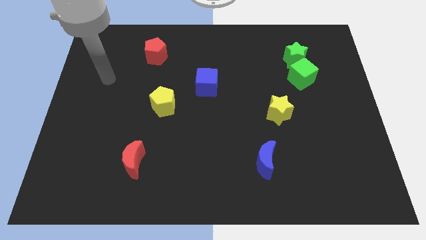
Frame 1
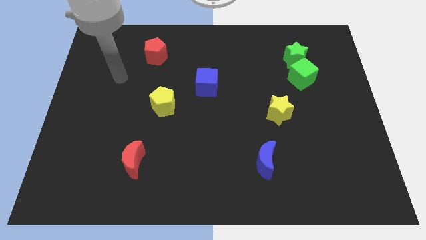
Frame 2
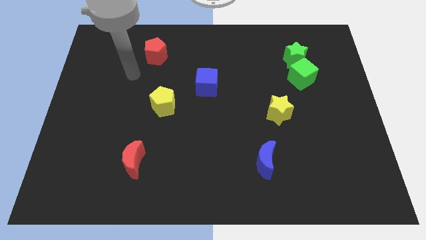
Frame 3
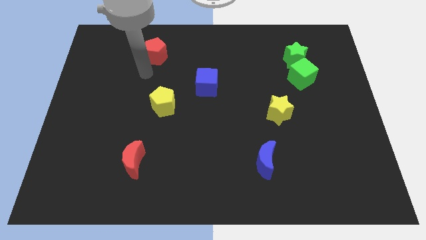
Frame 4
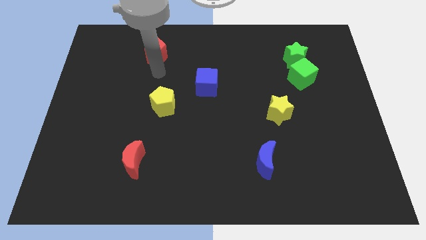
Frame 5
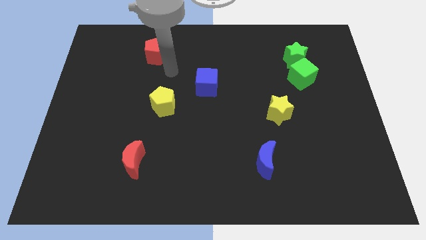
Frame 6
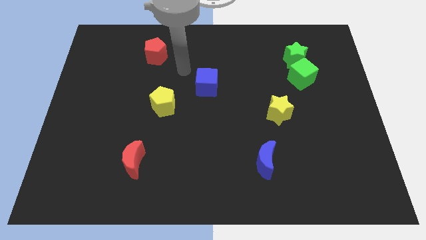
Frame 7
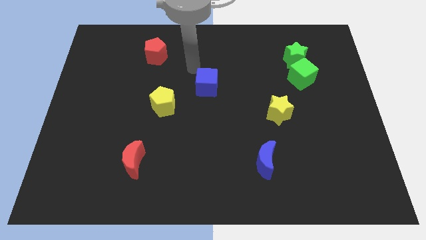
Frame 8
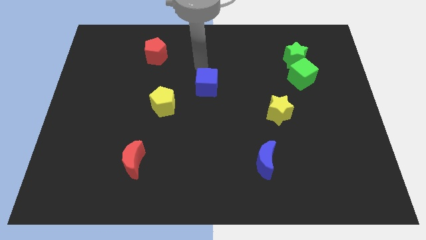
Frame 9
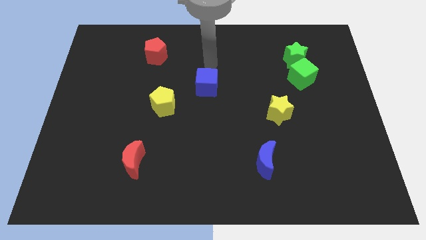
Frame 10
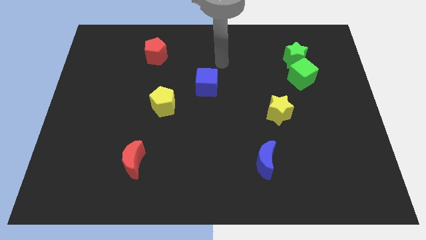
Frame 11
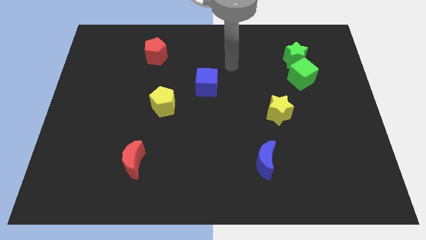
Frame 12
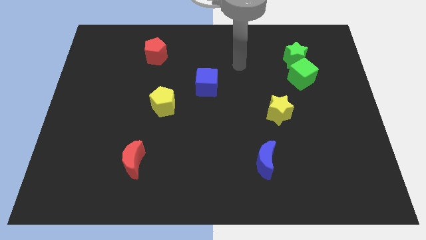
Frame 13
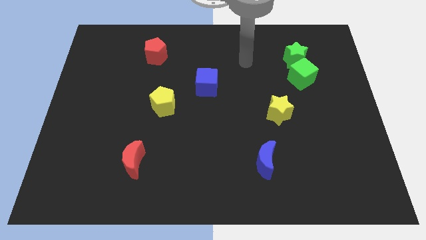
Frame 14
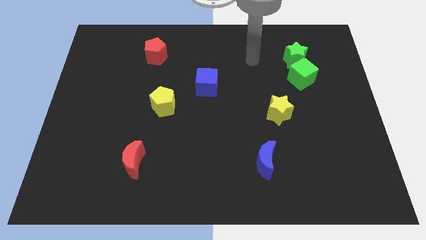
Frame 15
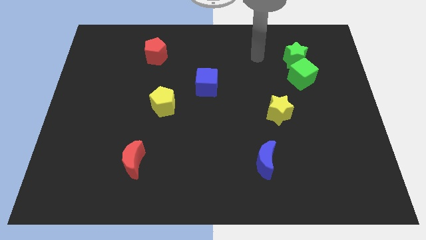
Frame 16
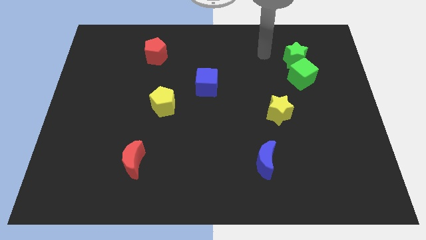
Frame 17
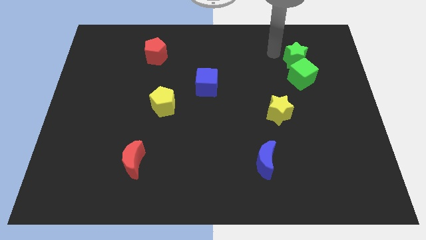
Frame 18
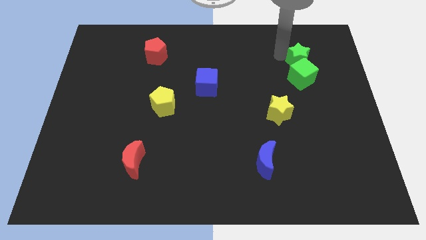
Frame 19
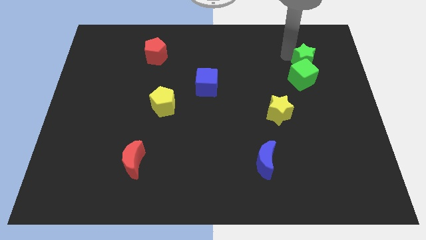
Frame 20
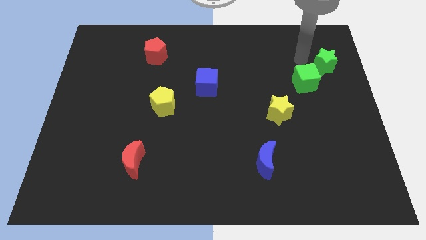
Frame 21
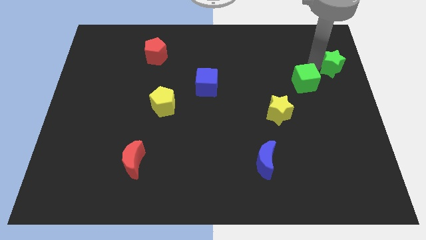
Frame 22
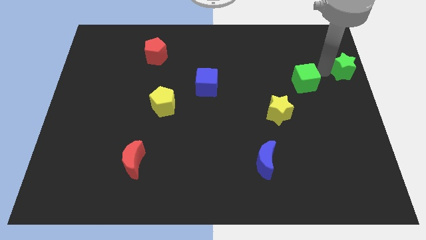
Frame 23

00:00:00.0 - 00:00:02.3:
move the green cube away from the green star

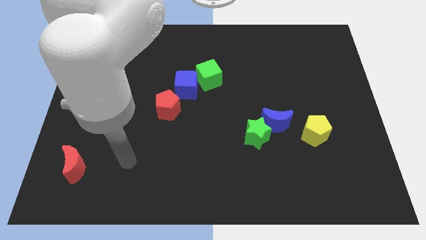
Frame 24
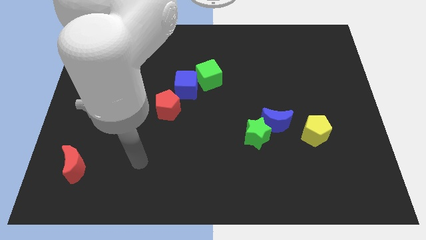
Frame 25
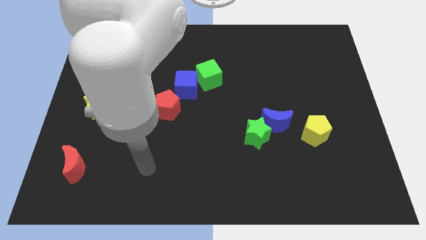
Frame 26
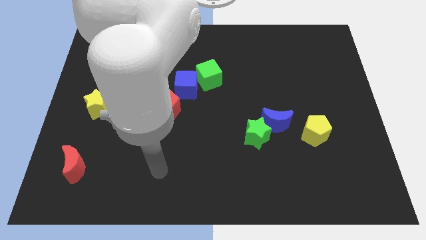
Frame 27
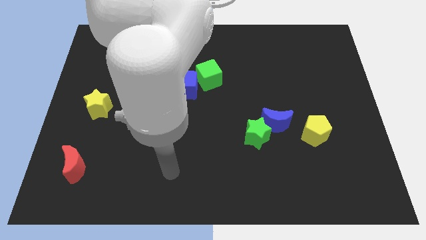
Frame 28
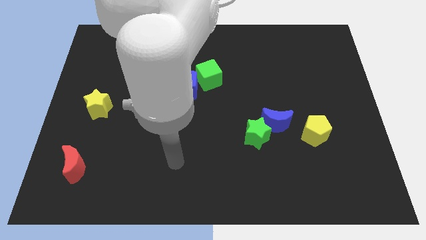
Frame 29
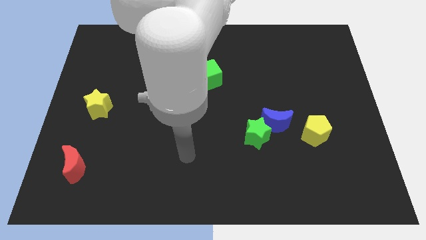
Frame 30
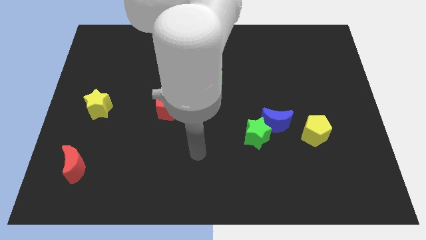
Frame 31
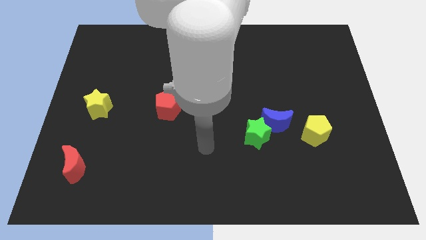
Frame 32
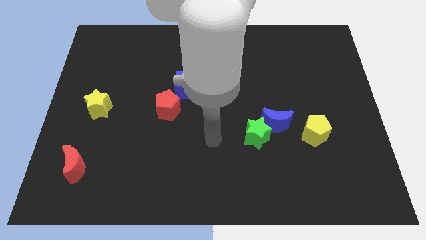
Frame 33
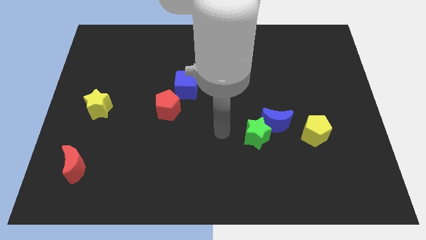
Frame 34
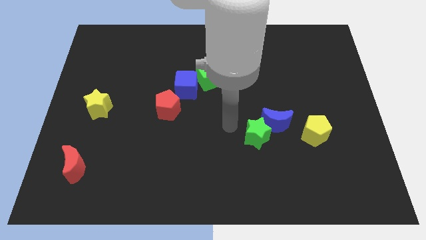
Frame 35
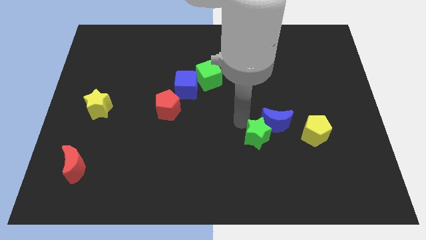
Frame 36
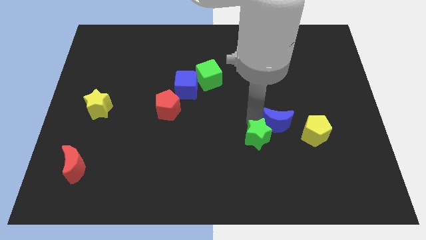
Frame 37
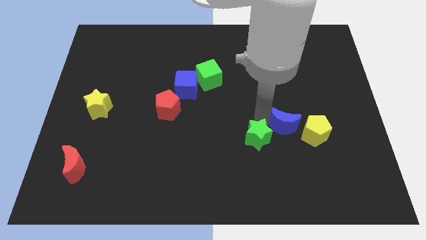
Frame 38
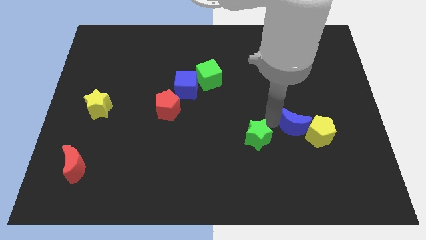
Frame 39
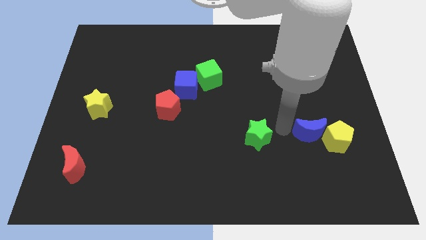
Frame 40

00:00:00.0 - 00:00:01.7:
move the green star away from the blue moon

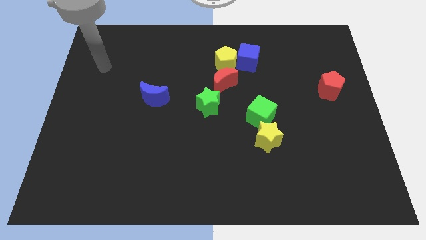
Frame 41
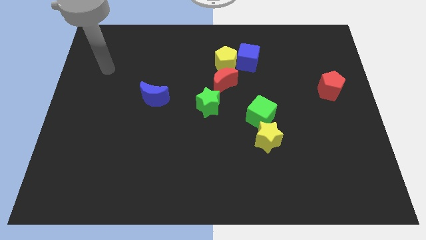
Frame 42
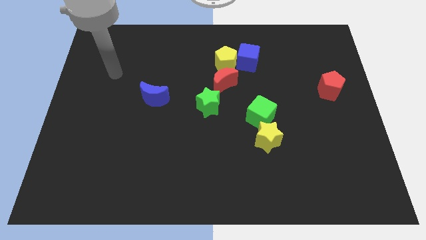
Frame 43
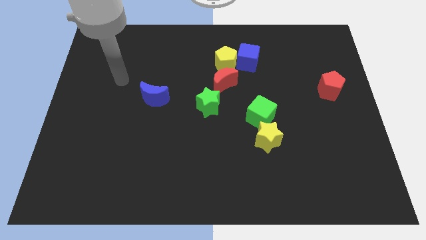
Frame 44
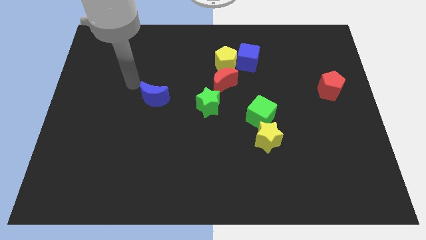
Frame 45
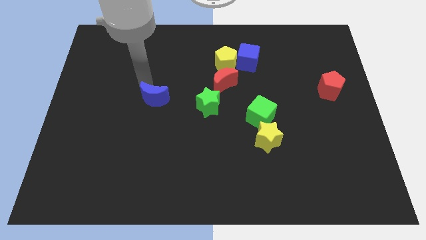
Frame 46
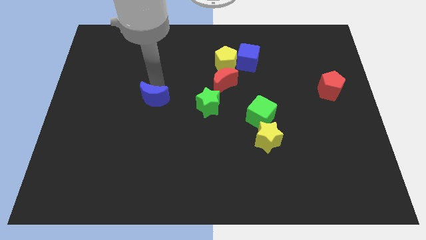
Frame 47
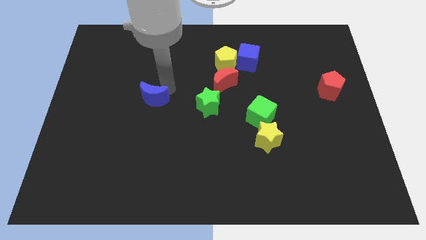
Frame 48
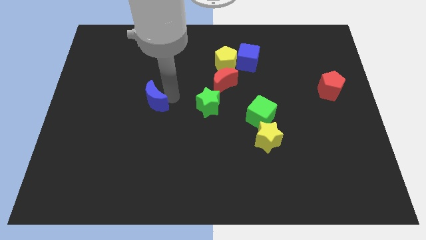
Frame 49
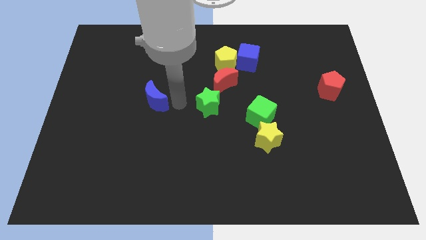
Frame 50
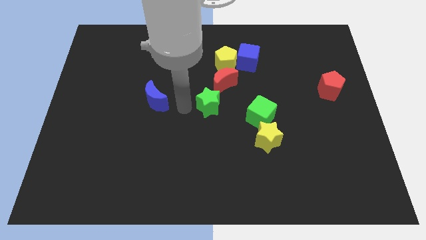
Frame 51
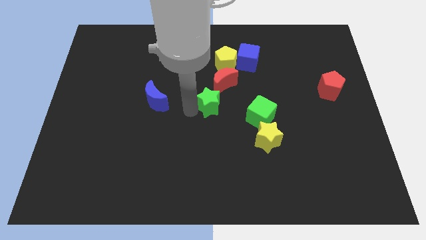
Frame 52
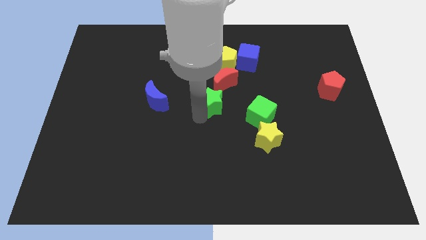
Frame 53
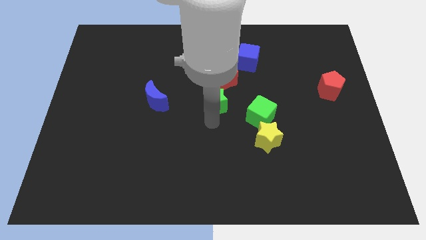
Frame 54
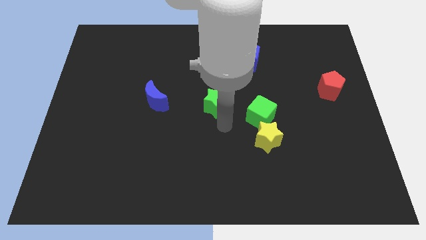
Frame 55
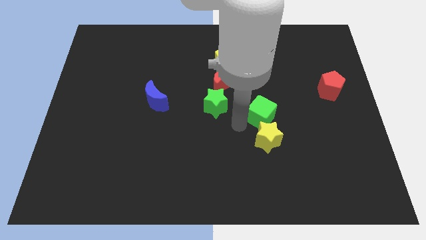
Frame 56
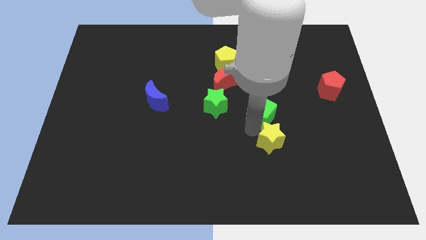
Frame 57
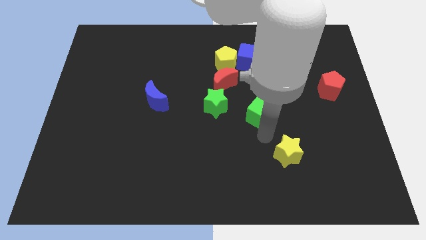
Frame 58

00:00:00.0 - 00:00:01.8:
separate the green cube from the yellow star

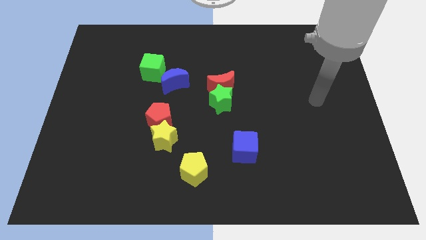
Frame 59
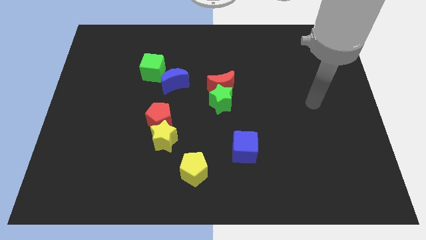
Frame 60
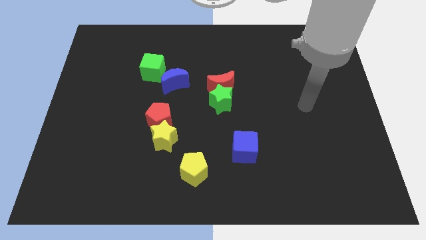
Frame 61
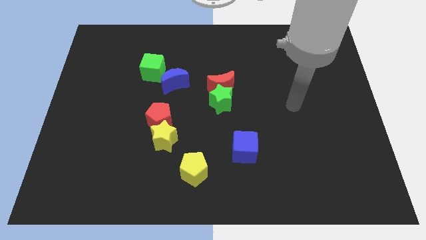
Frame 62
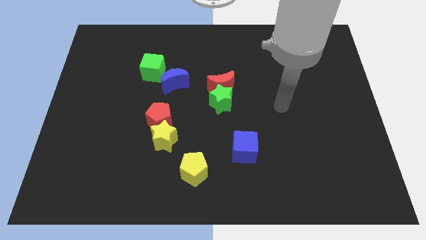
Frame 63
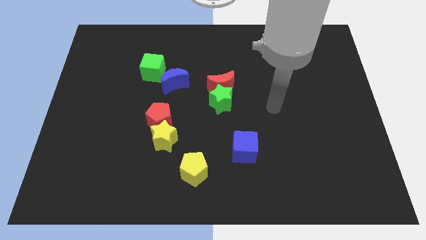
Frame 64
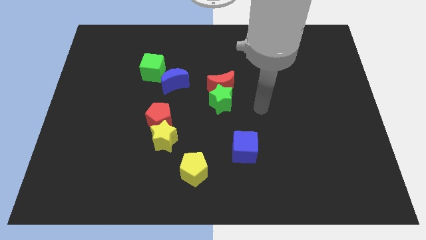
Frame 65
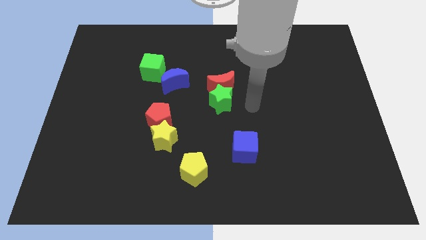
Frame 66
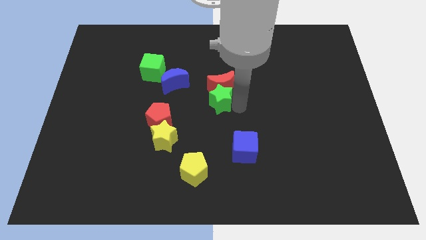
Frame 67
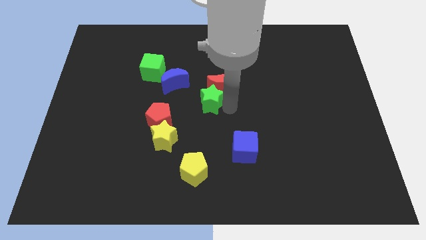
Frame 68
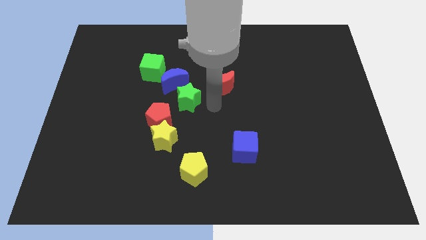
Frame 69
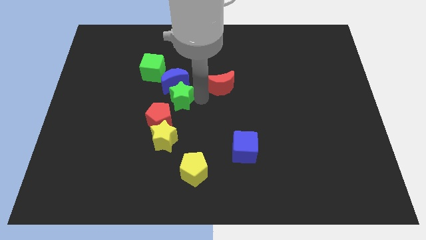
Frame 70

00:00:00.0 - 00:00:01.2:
pull the red moon apart from the green star

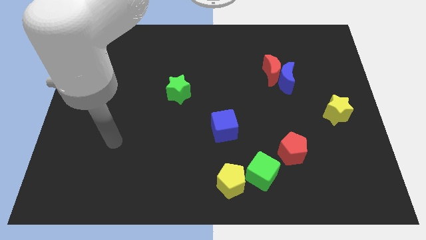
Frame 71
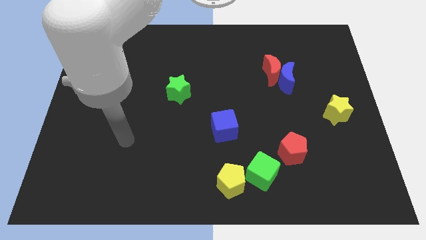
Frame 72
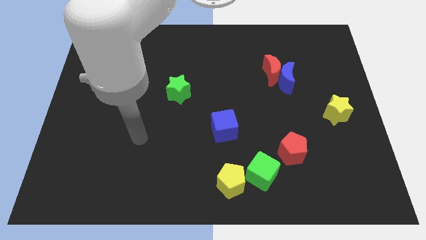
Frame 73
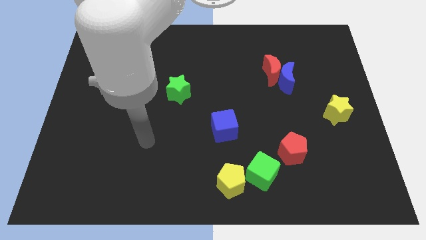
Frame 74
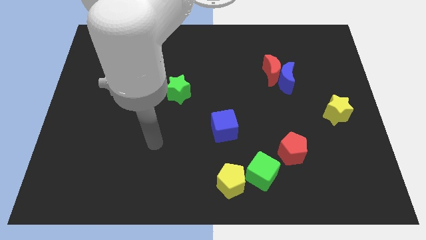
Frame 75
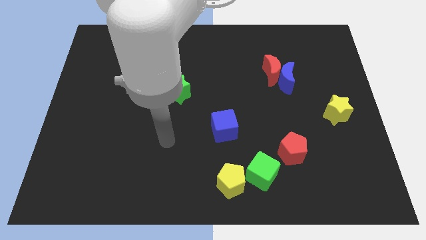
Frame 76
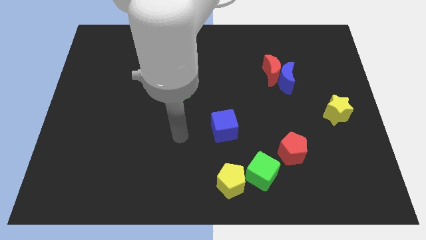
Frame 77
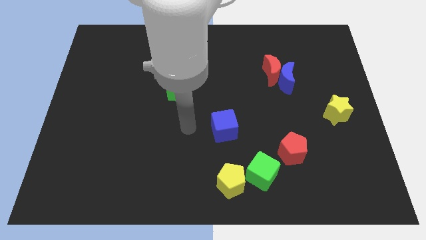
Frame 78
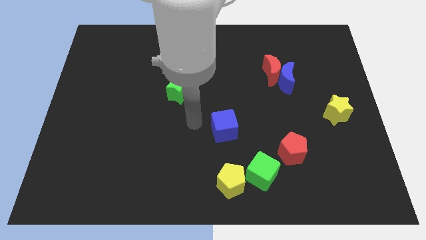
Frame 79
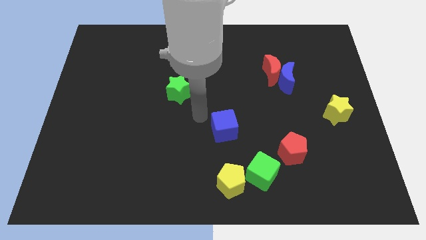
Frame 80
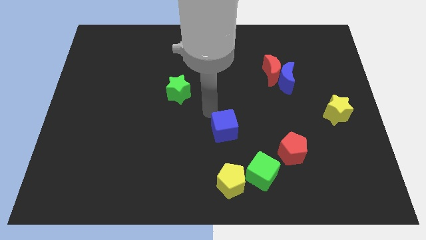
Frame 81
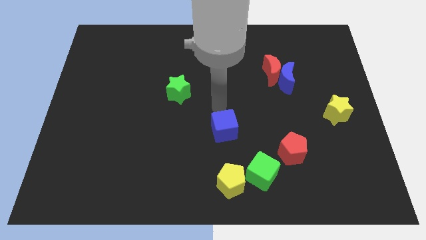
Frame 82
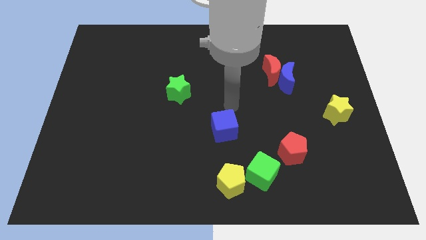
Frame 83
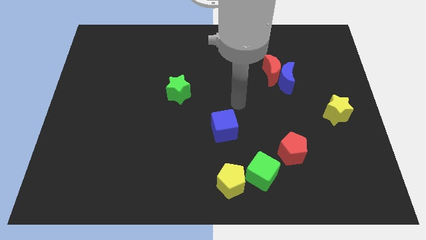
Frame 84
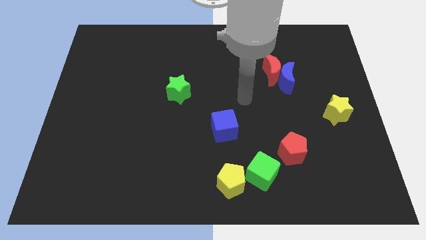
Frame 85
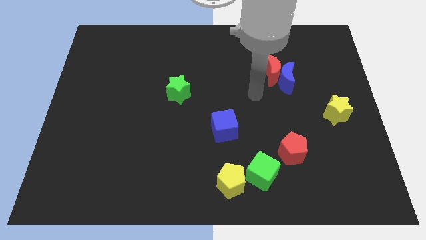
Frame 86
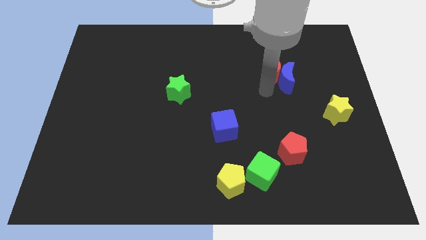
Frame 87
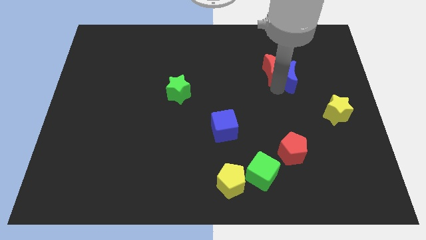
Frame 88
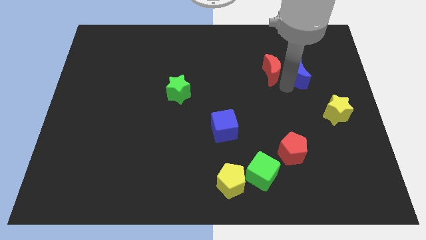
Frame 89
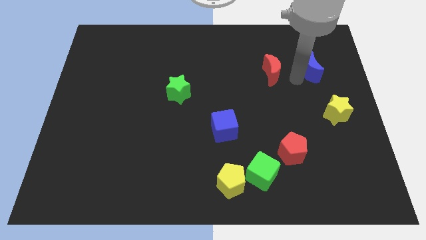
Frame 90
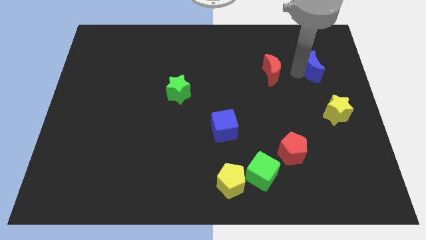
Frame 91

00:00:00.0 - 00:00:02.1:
pull the red moon apart from the blue moon

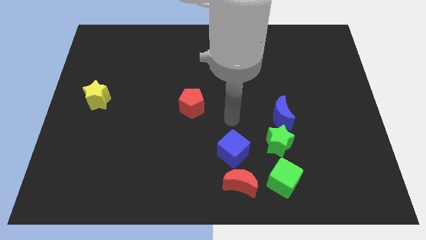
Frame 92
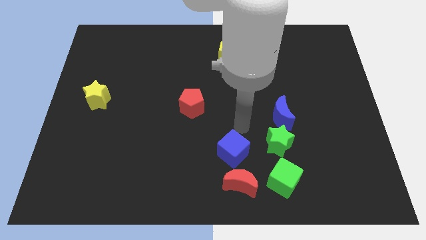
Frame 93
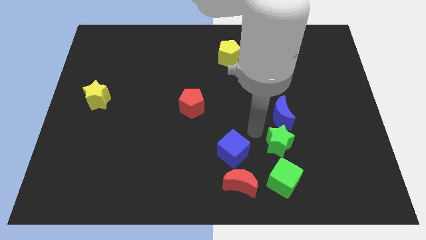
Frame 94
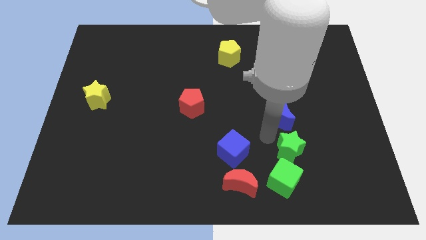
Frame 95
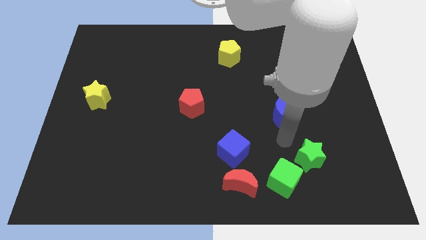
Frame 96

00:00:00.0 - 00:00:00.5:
separate the blue moon from the green star
